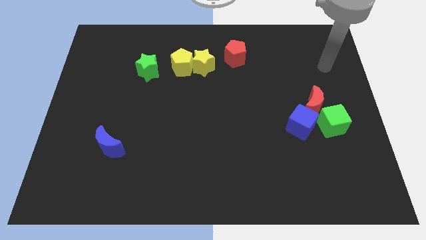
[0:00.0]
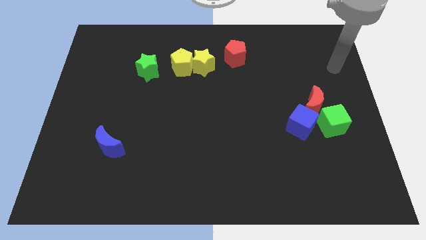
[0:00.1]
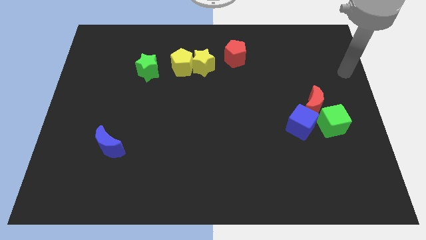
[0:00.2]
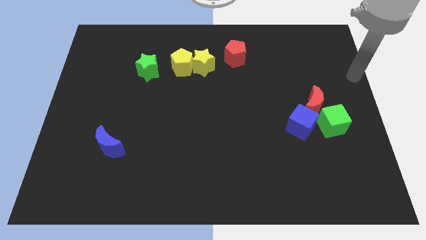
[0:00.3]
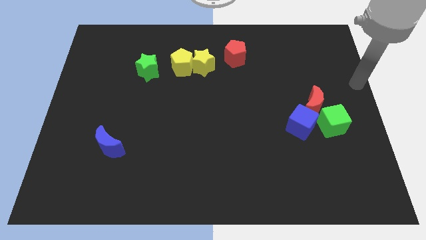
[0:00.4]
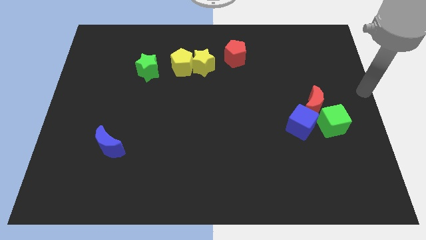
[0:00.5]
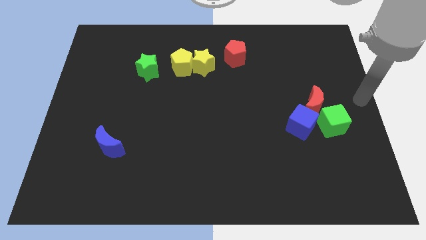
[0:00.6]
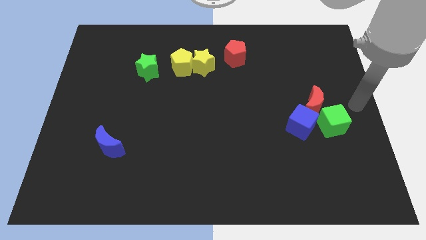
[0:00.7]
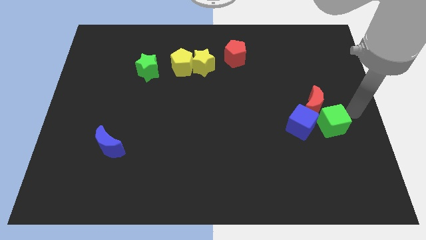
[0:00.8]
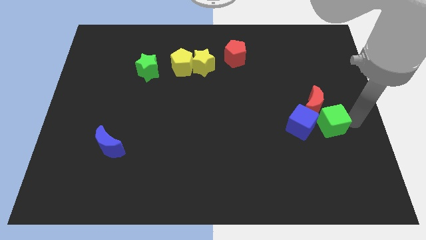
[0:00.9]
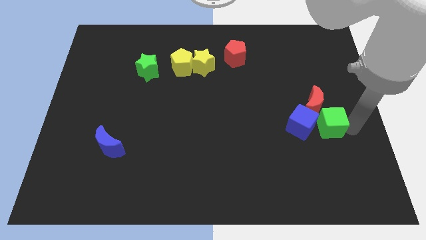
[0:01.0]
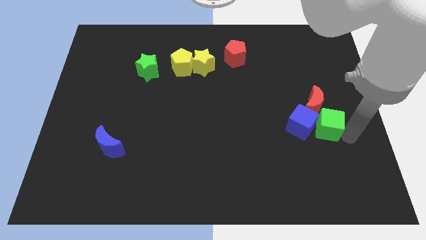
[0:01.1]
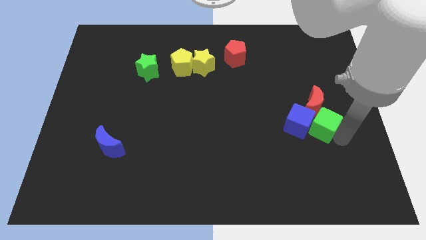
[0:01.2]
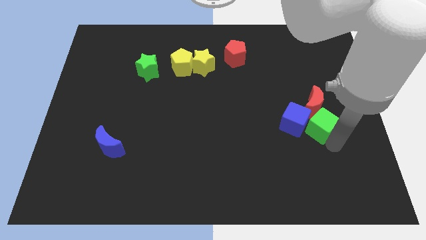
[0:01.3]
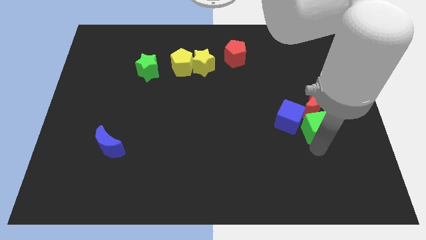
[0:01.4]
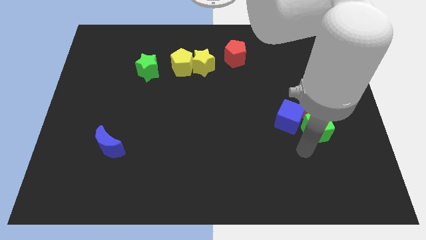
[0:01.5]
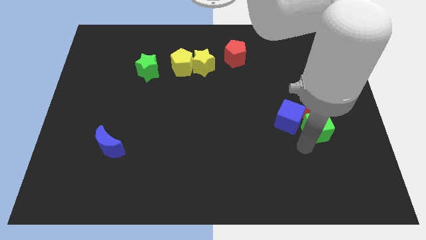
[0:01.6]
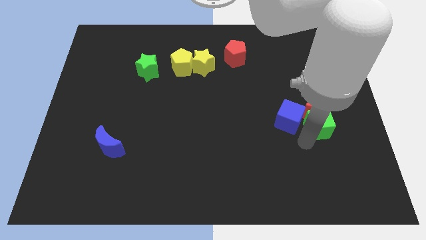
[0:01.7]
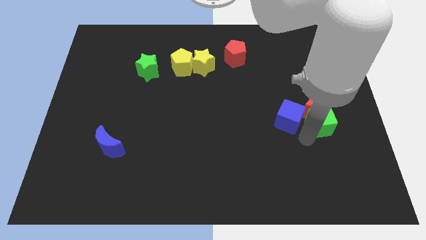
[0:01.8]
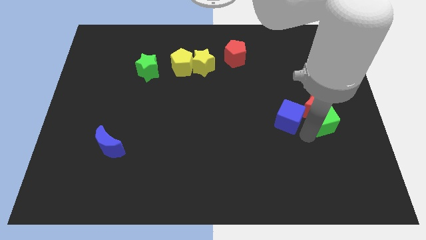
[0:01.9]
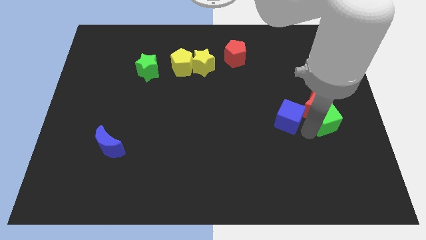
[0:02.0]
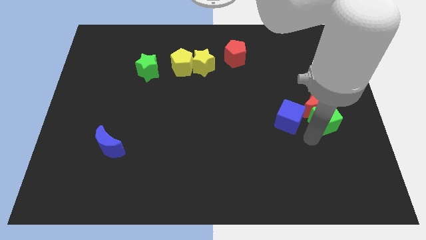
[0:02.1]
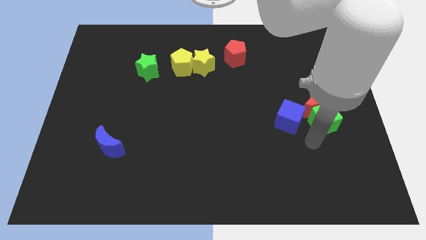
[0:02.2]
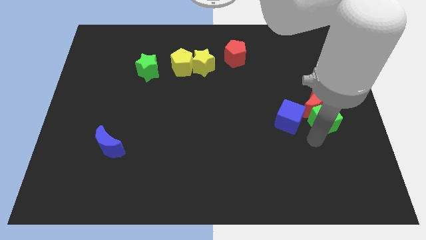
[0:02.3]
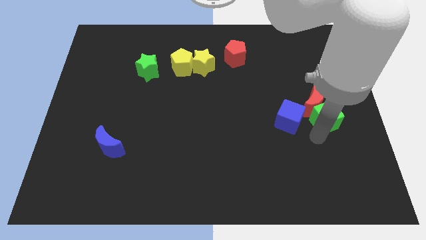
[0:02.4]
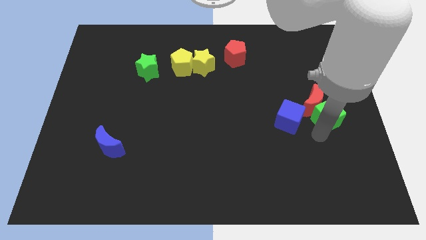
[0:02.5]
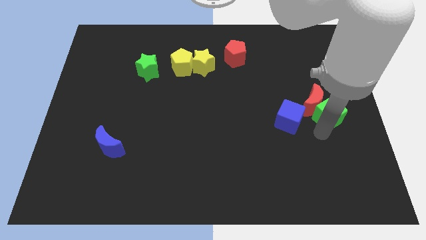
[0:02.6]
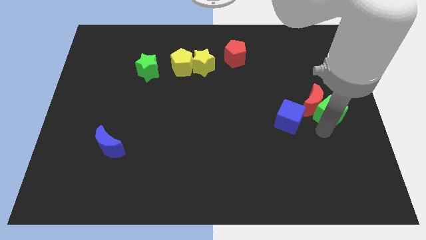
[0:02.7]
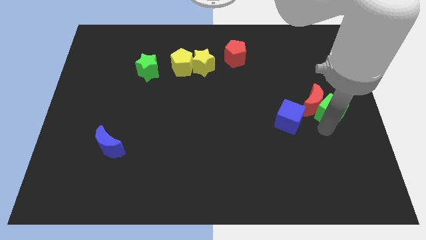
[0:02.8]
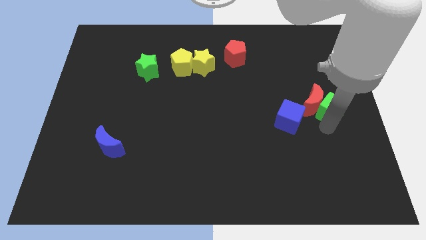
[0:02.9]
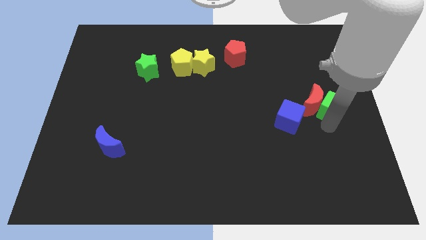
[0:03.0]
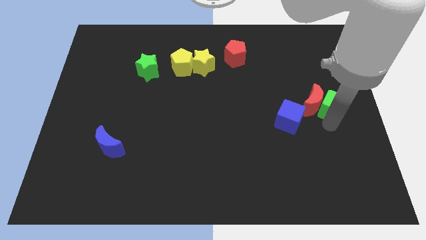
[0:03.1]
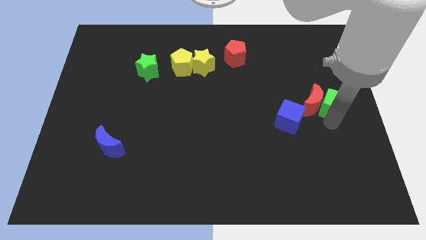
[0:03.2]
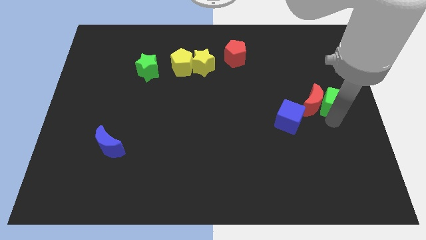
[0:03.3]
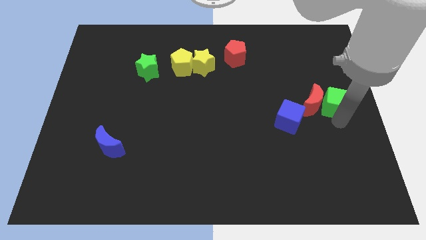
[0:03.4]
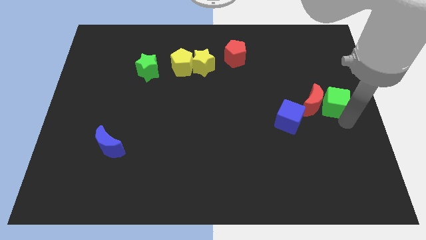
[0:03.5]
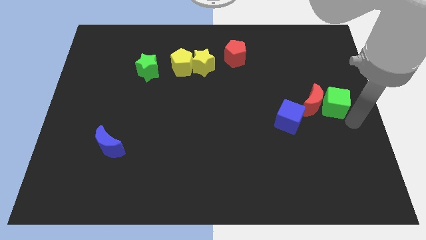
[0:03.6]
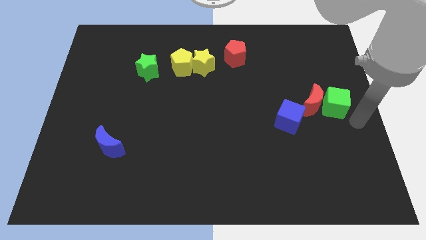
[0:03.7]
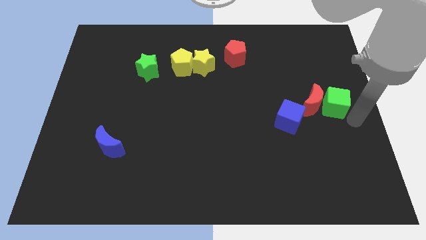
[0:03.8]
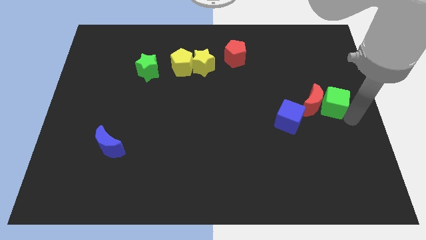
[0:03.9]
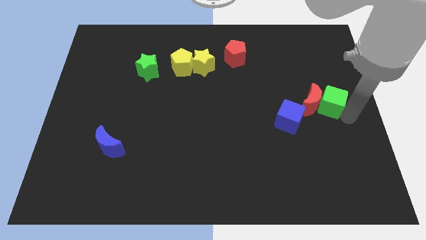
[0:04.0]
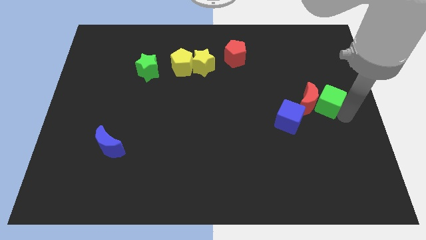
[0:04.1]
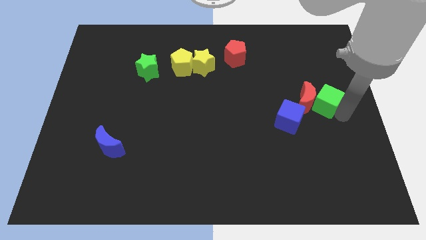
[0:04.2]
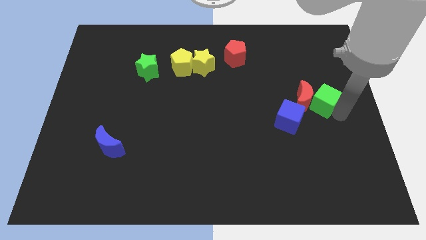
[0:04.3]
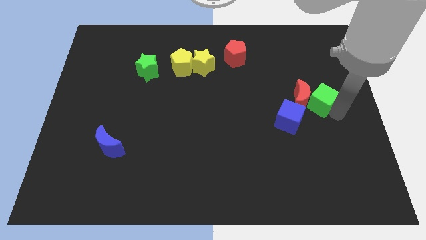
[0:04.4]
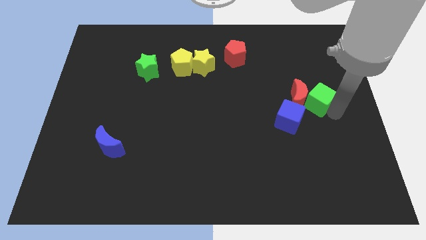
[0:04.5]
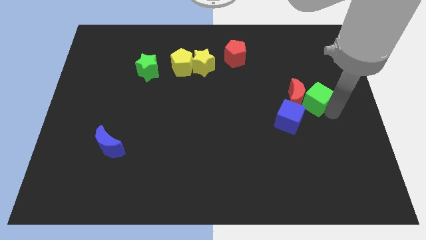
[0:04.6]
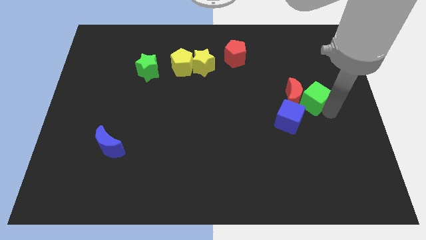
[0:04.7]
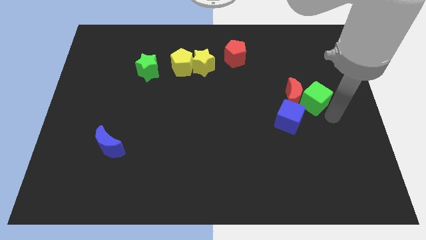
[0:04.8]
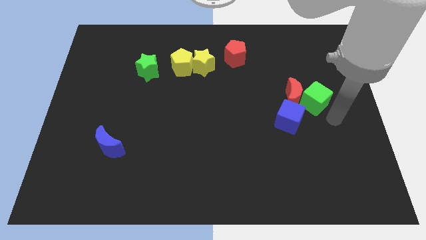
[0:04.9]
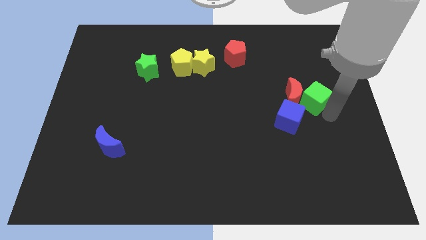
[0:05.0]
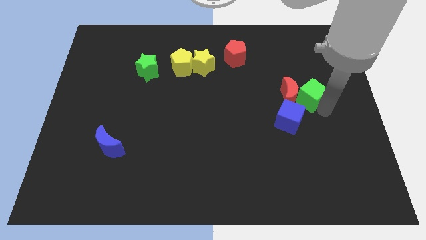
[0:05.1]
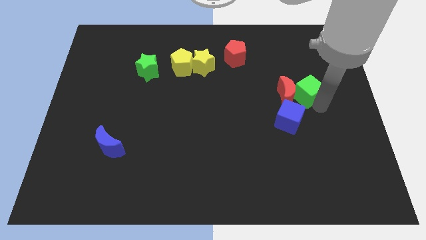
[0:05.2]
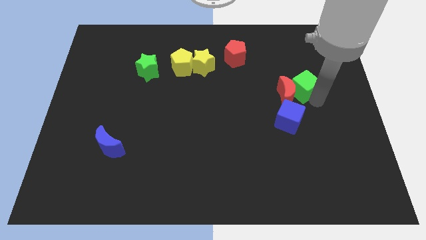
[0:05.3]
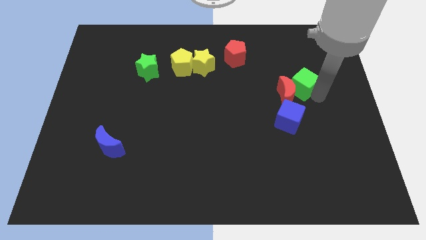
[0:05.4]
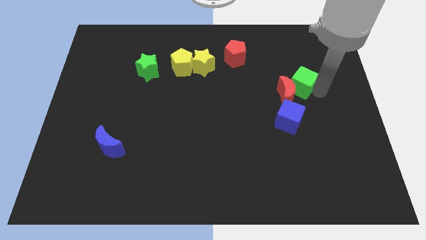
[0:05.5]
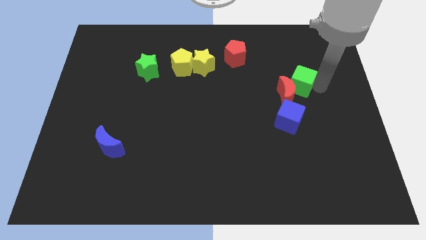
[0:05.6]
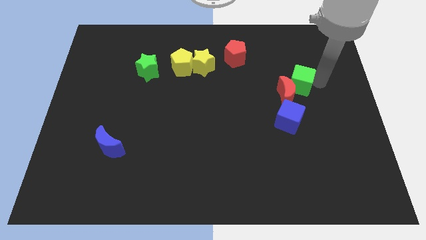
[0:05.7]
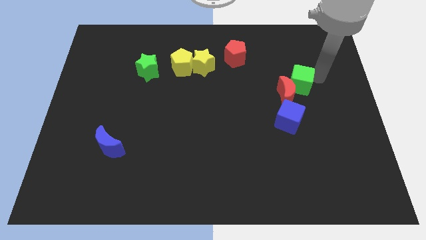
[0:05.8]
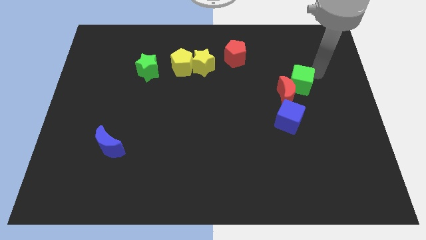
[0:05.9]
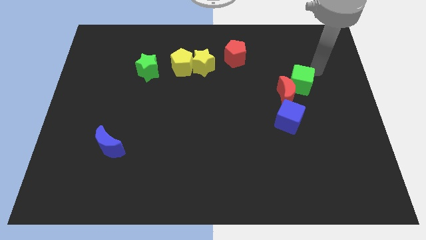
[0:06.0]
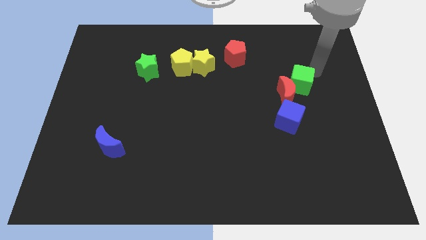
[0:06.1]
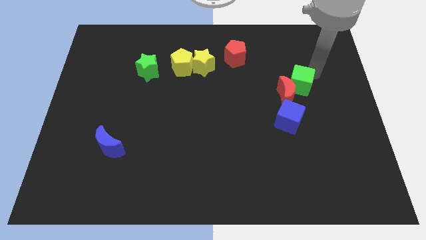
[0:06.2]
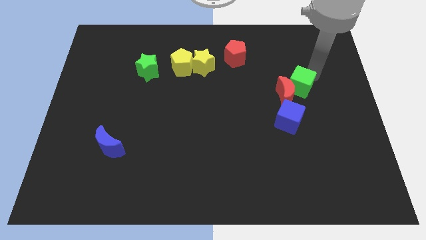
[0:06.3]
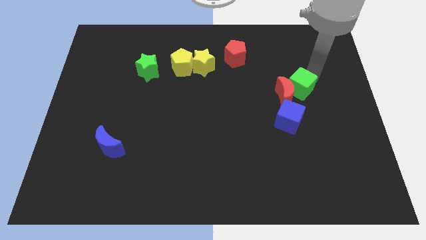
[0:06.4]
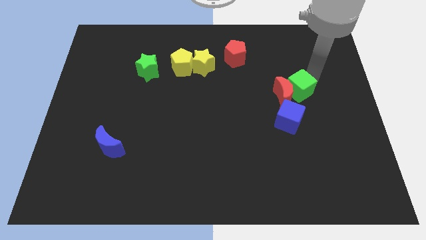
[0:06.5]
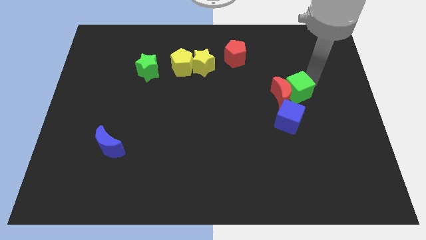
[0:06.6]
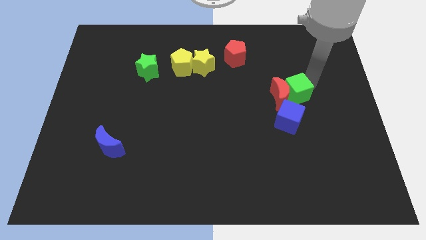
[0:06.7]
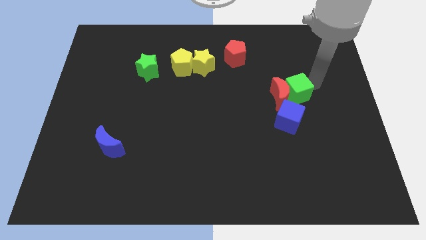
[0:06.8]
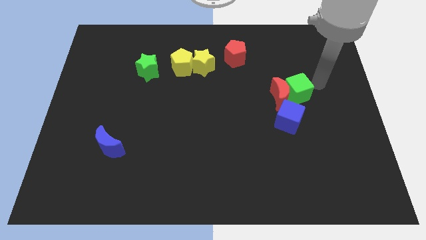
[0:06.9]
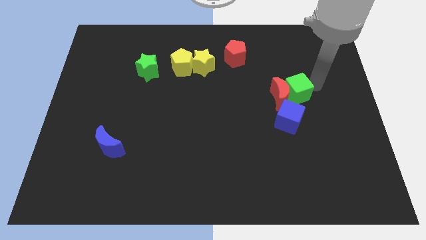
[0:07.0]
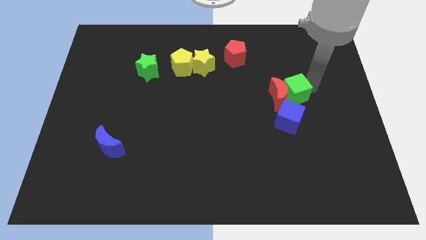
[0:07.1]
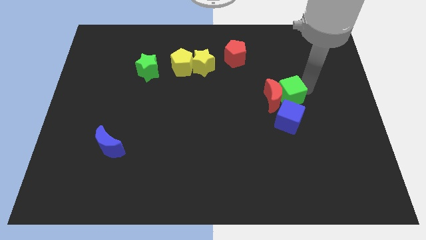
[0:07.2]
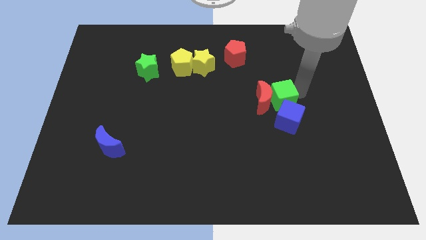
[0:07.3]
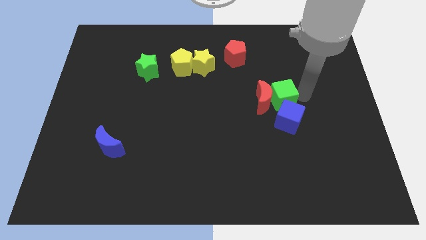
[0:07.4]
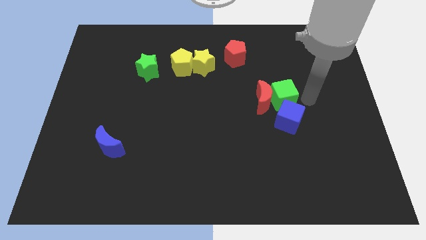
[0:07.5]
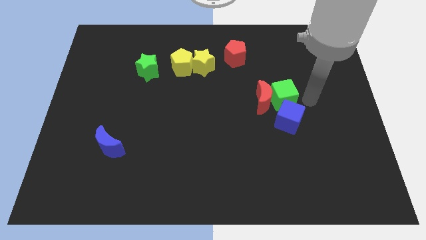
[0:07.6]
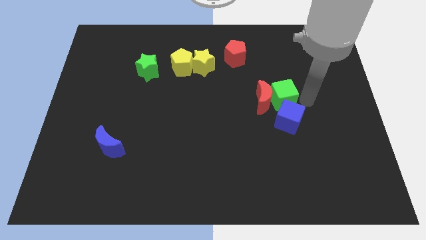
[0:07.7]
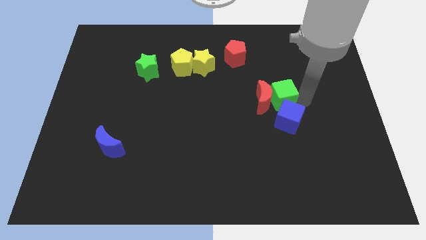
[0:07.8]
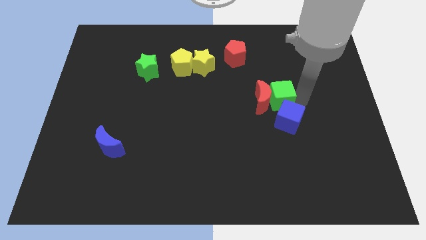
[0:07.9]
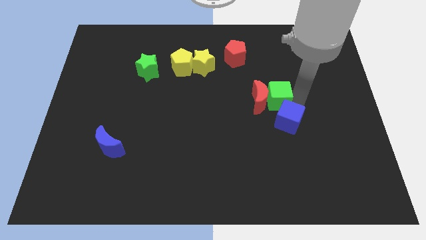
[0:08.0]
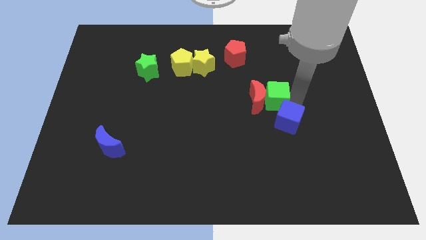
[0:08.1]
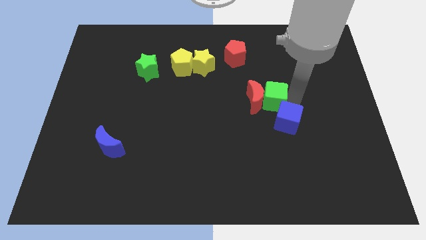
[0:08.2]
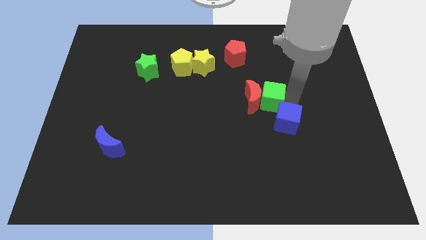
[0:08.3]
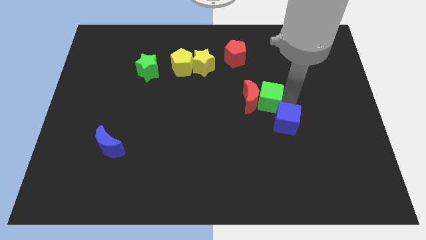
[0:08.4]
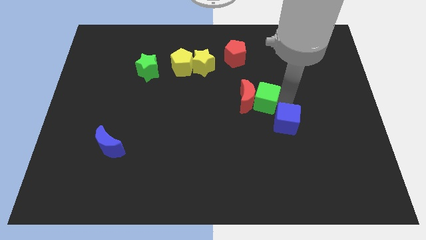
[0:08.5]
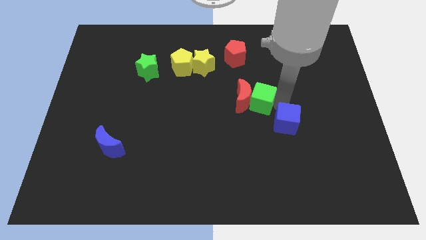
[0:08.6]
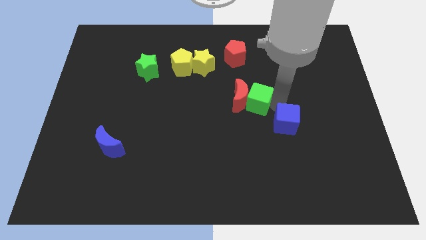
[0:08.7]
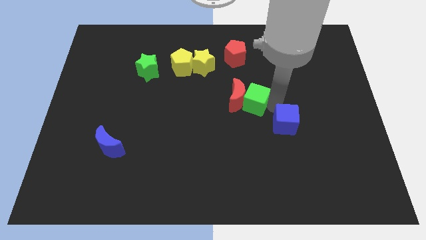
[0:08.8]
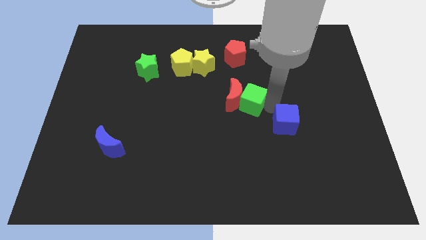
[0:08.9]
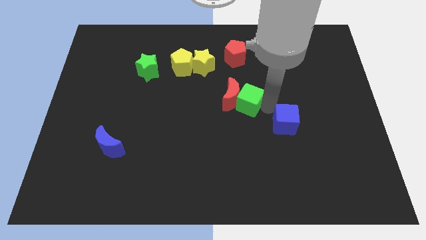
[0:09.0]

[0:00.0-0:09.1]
slide the green cube to the bottom side of the red pentagon
